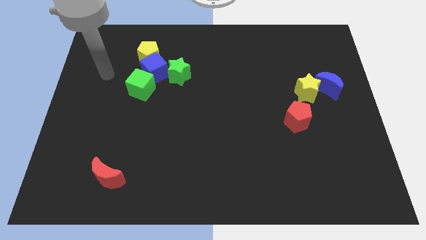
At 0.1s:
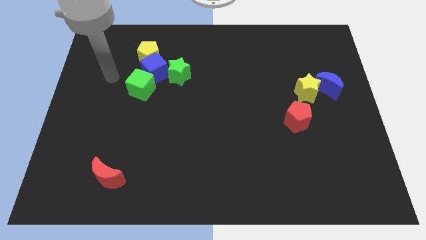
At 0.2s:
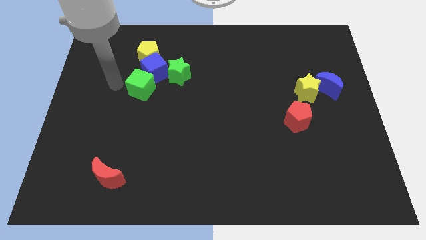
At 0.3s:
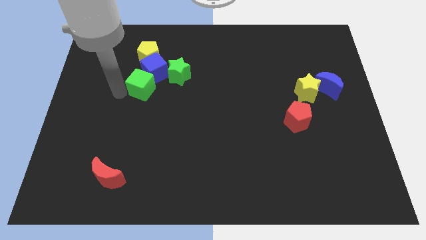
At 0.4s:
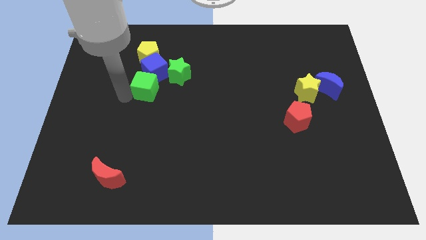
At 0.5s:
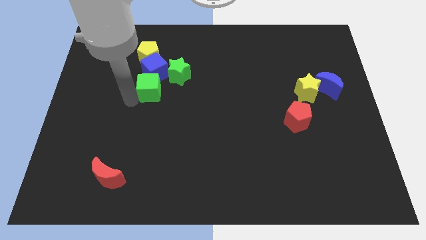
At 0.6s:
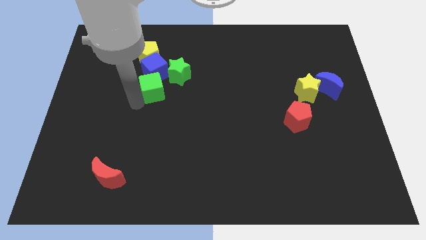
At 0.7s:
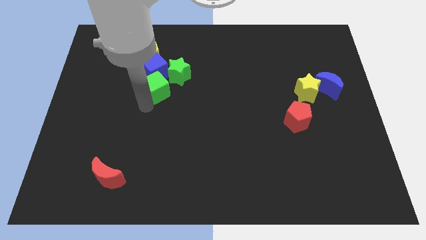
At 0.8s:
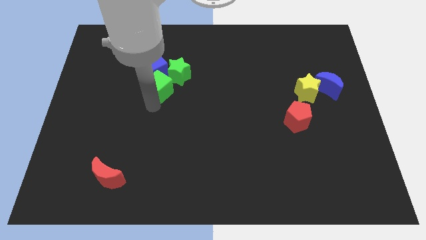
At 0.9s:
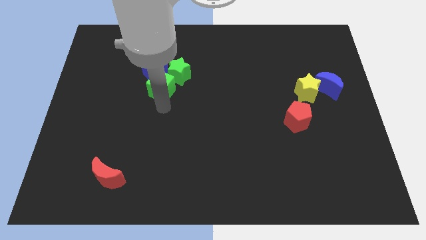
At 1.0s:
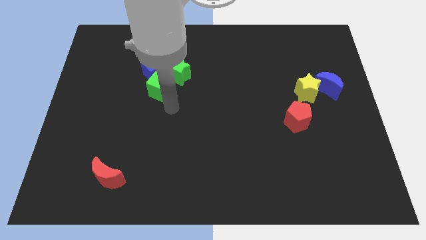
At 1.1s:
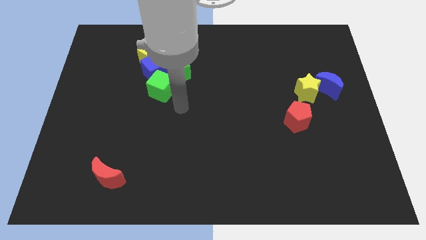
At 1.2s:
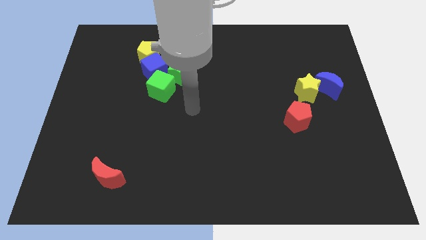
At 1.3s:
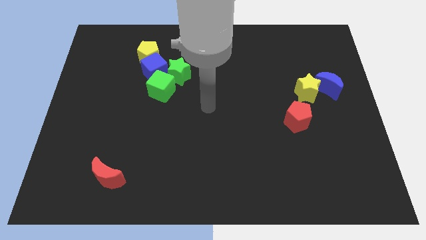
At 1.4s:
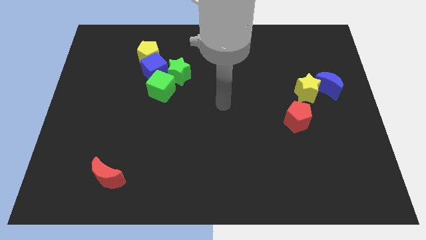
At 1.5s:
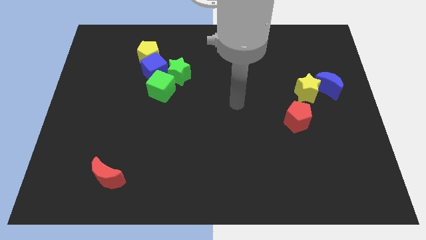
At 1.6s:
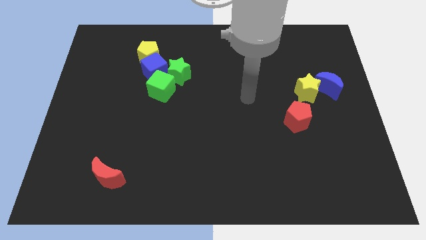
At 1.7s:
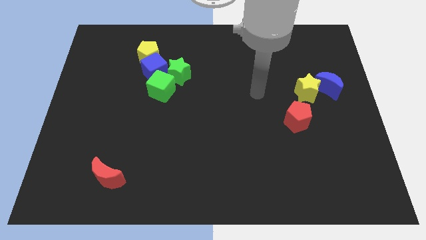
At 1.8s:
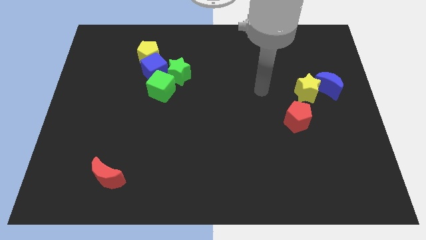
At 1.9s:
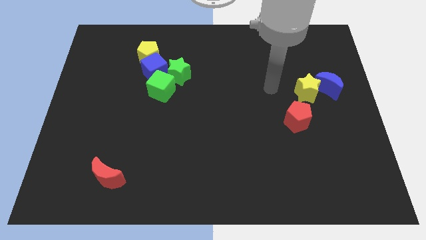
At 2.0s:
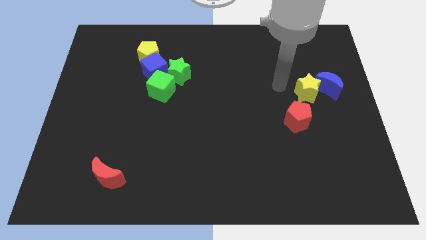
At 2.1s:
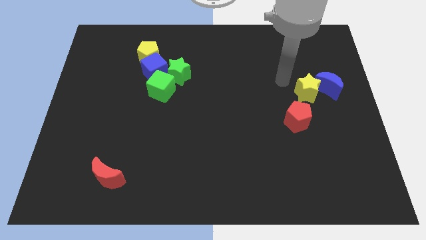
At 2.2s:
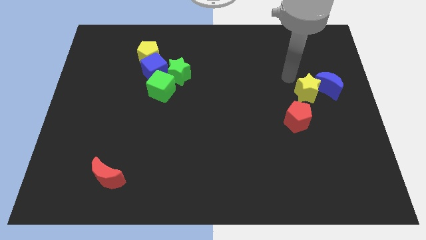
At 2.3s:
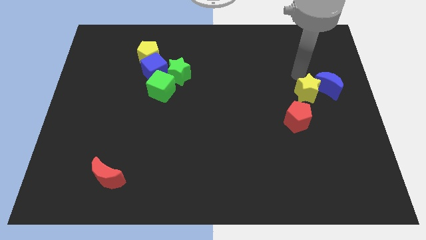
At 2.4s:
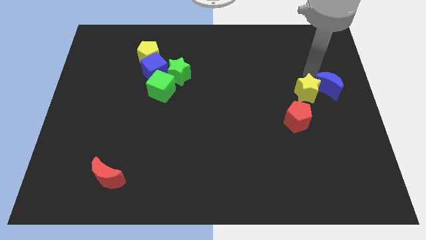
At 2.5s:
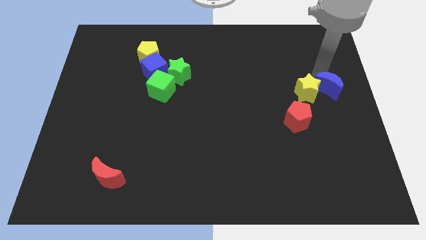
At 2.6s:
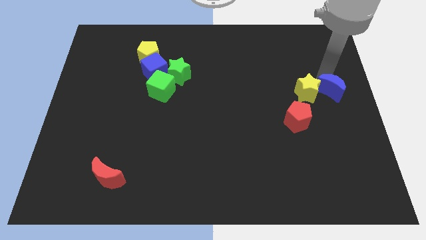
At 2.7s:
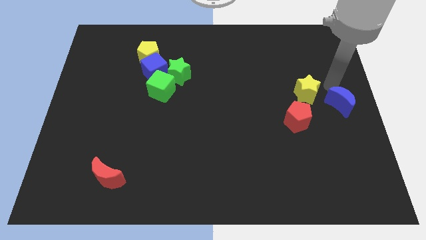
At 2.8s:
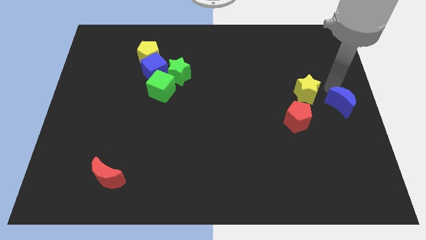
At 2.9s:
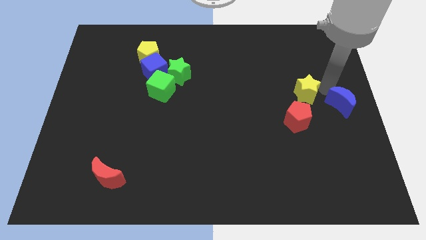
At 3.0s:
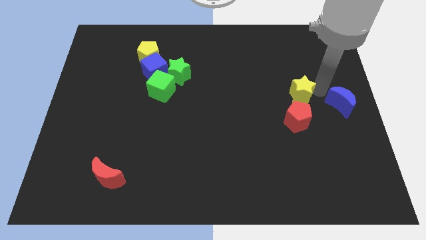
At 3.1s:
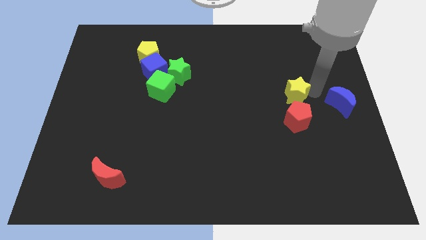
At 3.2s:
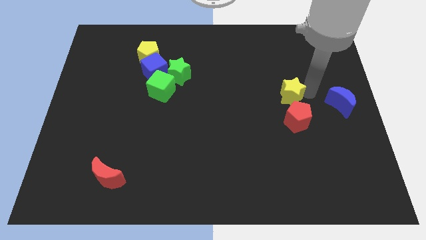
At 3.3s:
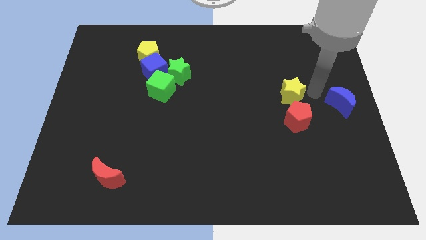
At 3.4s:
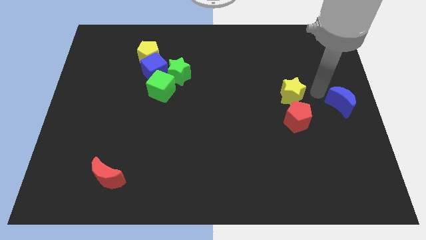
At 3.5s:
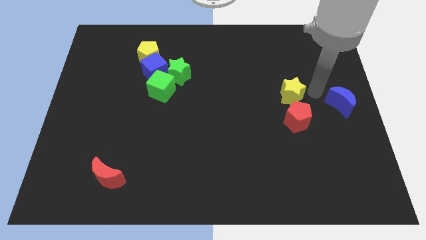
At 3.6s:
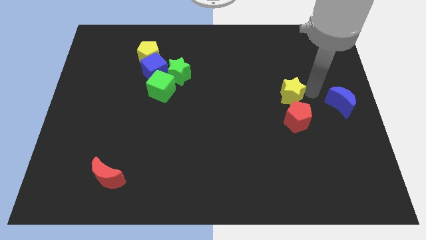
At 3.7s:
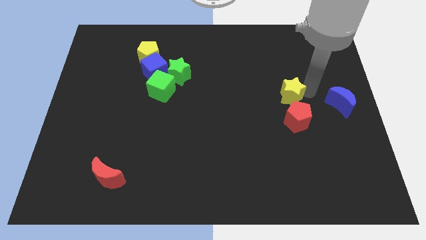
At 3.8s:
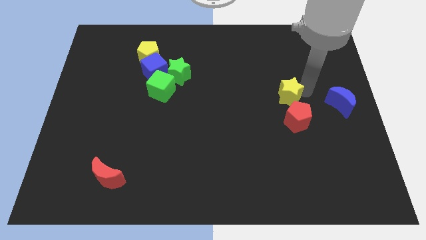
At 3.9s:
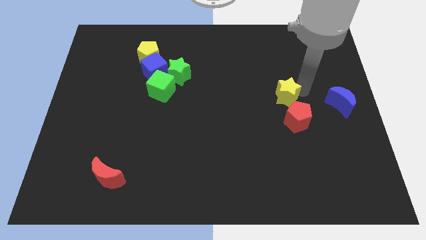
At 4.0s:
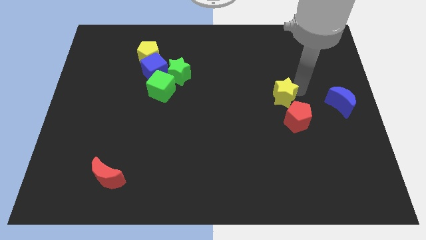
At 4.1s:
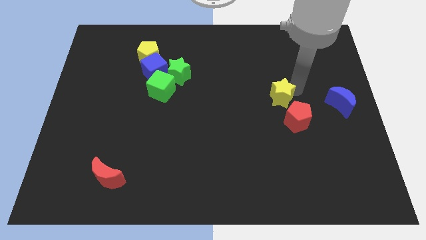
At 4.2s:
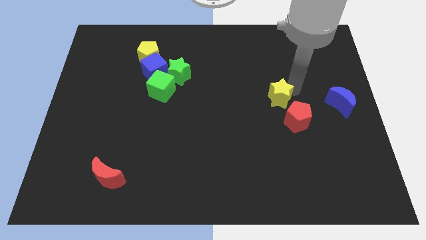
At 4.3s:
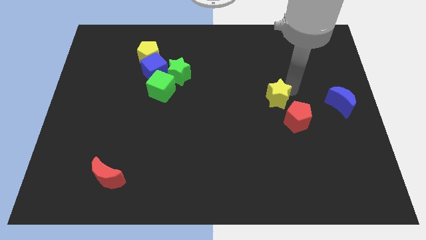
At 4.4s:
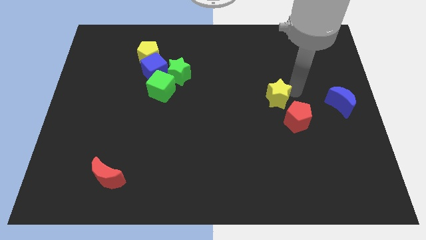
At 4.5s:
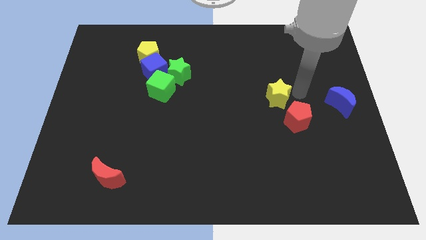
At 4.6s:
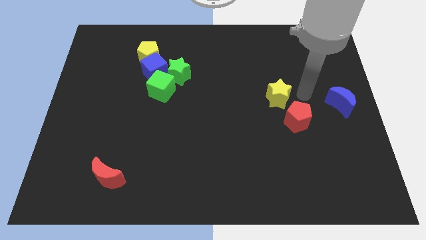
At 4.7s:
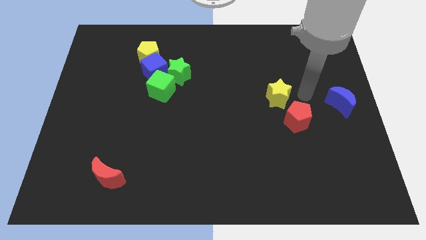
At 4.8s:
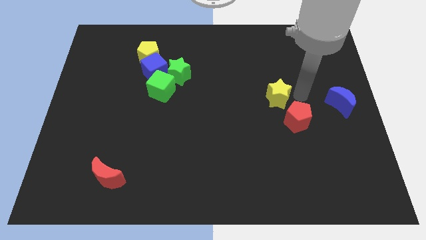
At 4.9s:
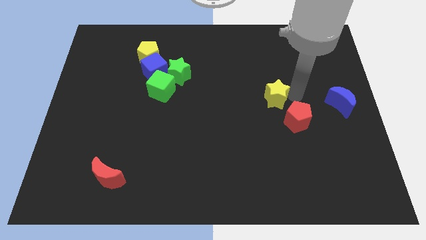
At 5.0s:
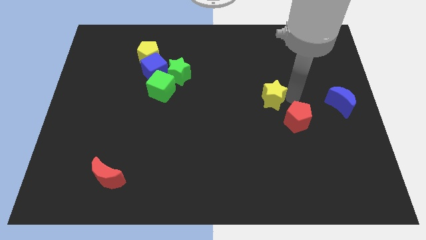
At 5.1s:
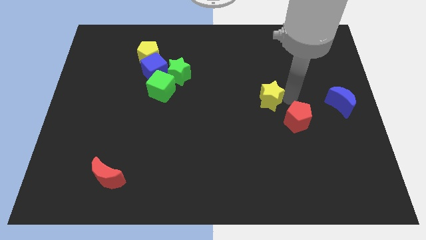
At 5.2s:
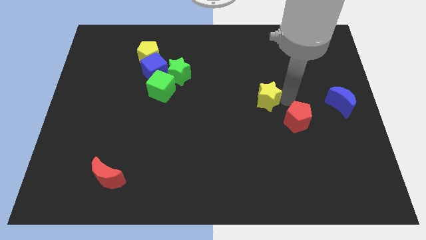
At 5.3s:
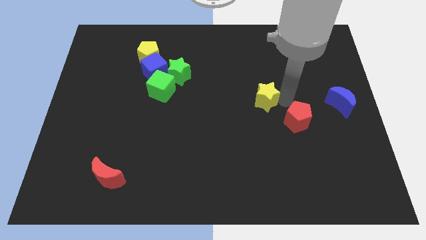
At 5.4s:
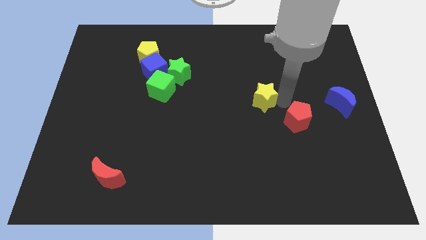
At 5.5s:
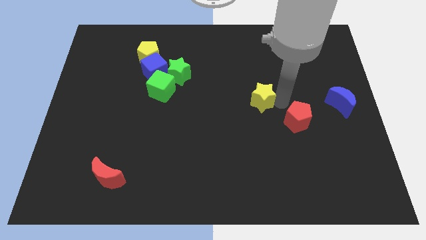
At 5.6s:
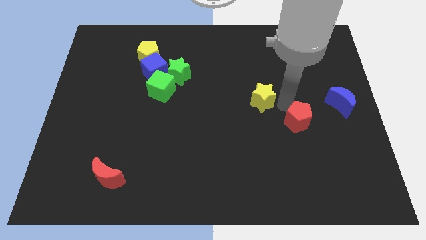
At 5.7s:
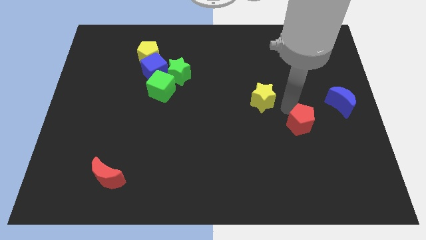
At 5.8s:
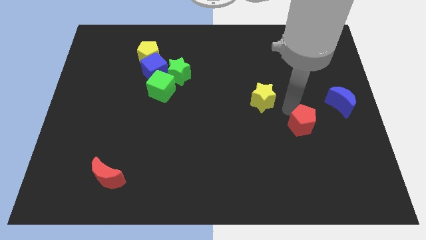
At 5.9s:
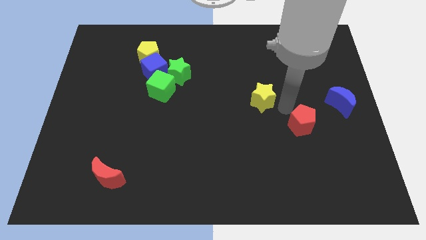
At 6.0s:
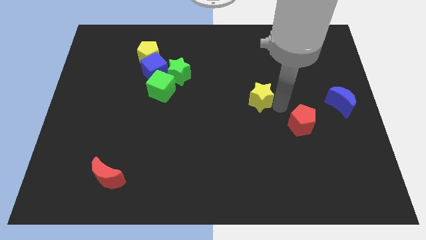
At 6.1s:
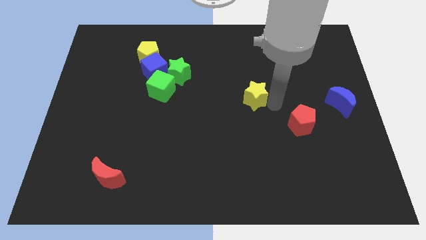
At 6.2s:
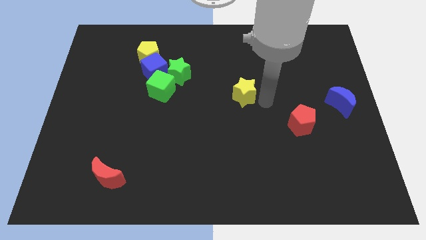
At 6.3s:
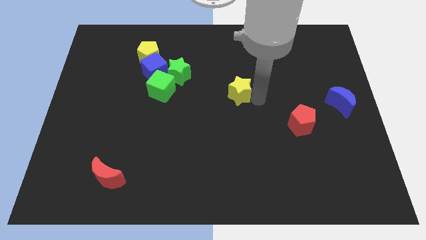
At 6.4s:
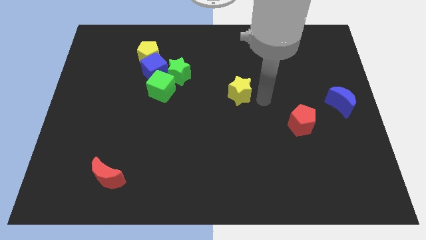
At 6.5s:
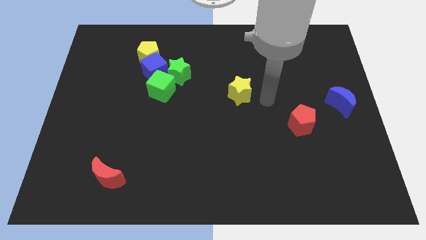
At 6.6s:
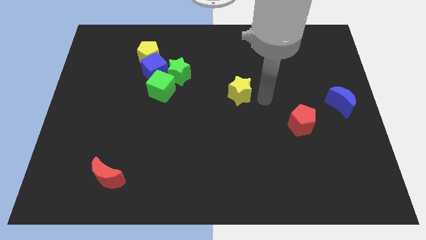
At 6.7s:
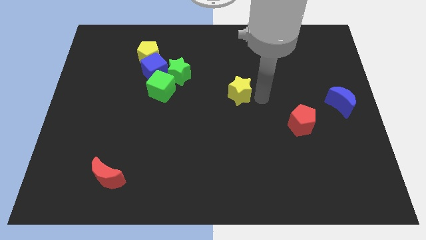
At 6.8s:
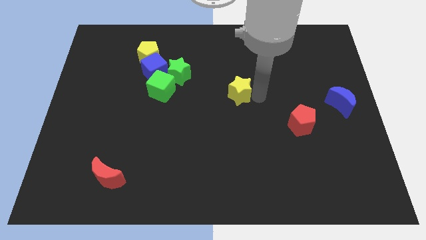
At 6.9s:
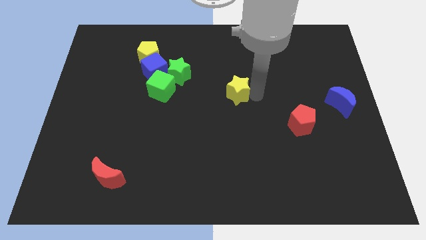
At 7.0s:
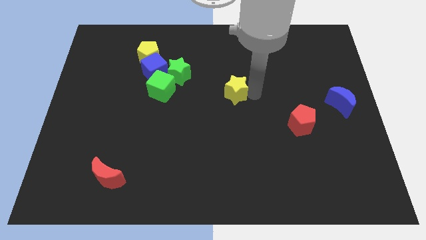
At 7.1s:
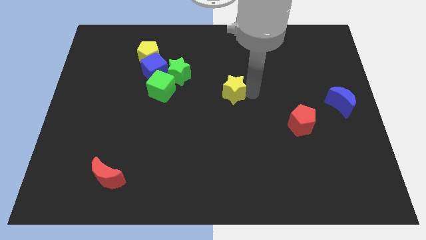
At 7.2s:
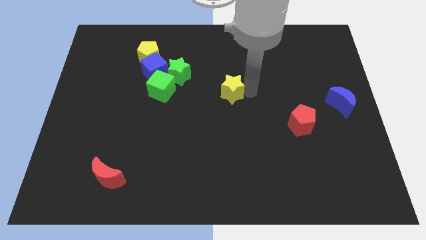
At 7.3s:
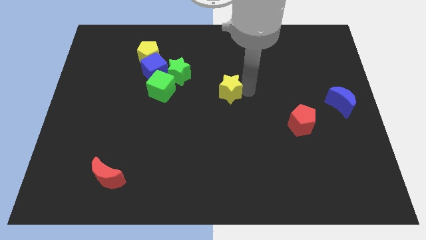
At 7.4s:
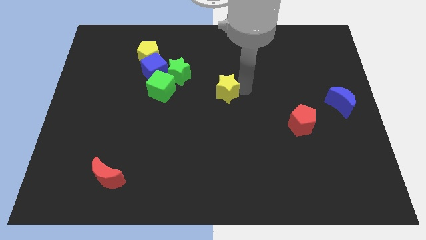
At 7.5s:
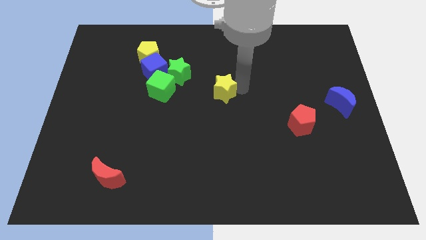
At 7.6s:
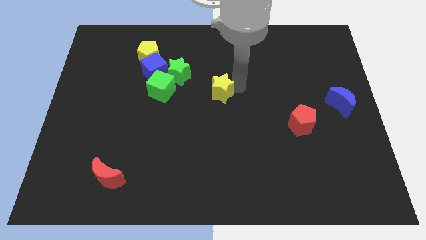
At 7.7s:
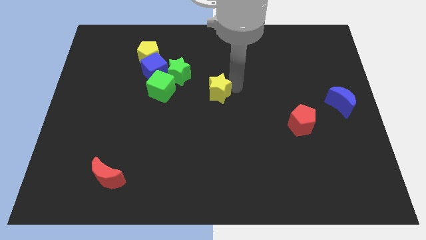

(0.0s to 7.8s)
push the yellow star diagonally down and to the right of the green star

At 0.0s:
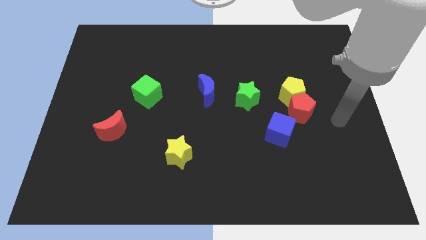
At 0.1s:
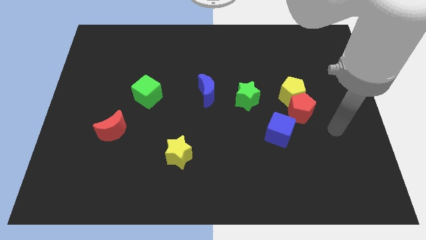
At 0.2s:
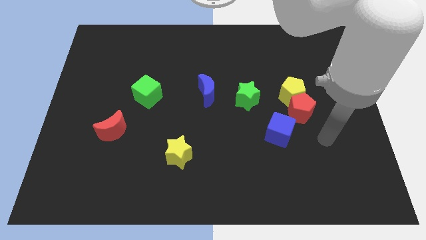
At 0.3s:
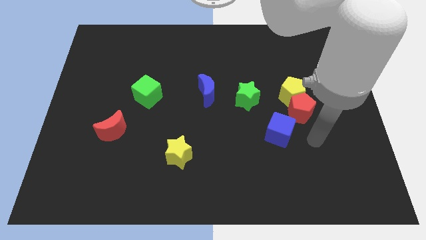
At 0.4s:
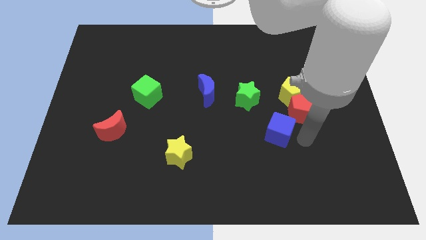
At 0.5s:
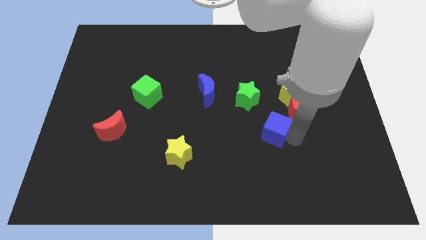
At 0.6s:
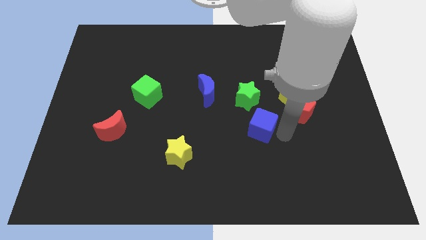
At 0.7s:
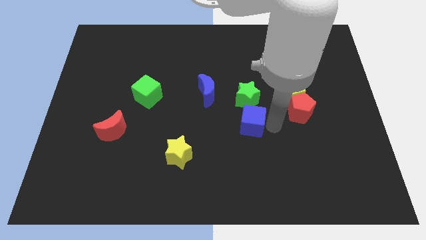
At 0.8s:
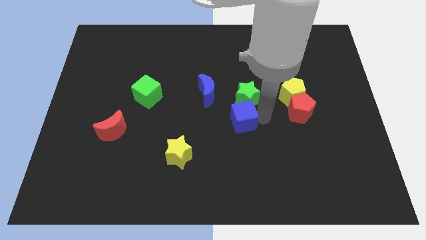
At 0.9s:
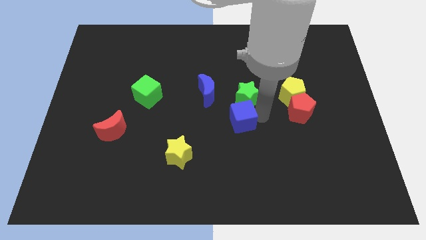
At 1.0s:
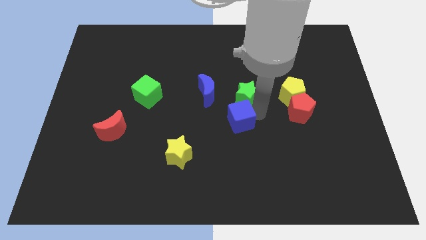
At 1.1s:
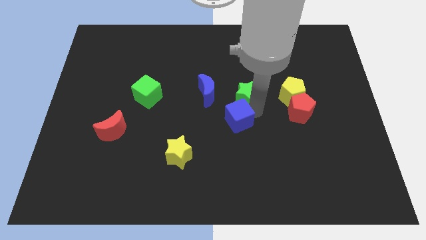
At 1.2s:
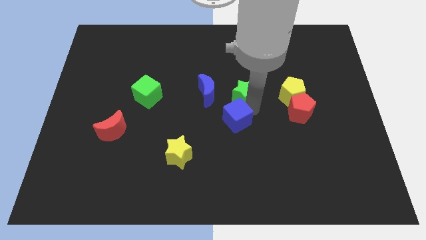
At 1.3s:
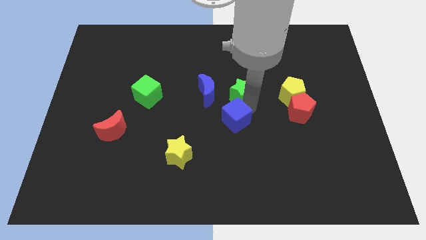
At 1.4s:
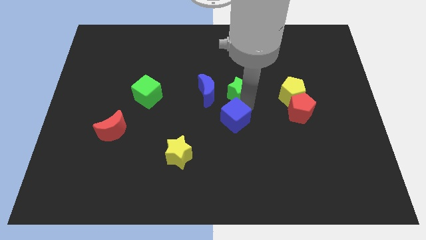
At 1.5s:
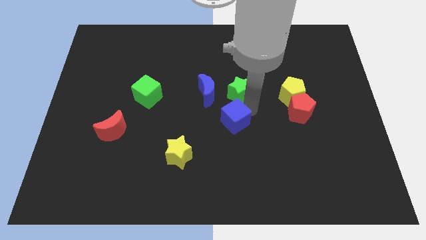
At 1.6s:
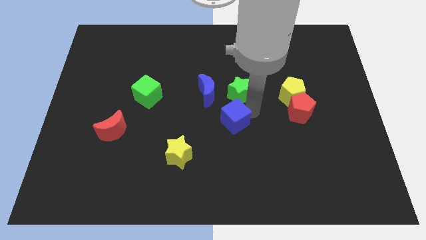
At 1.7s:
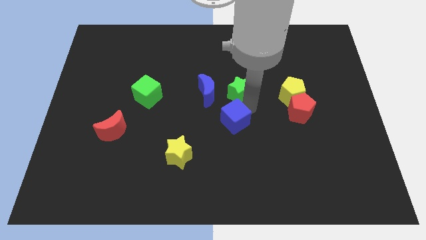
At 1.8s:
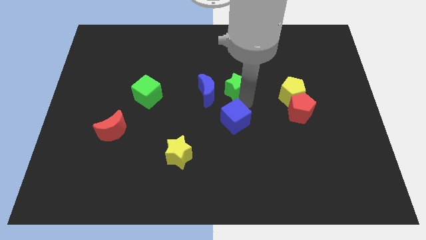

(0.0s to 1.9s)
slide the green star to the top right side of the blue moon
